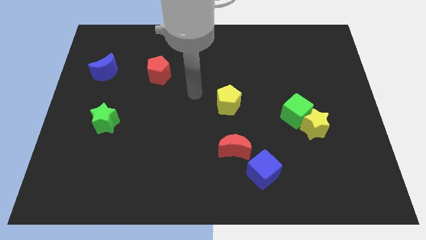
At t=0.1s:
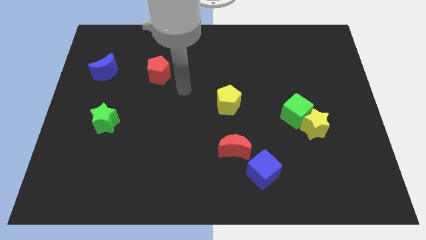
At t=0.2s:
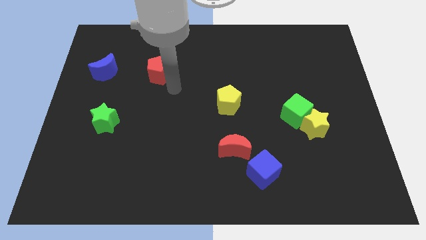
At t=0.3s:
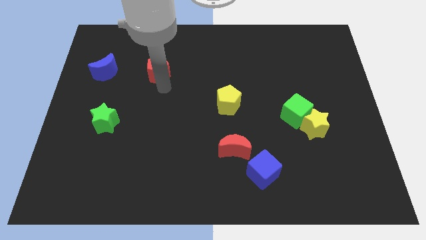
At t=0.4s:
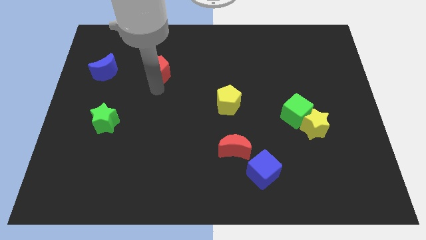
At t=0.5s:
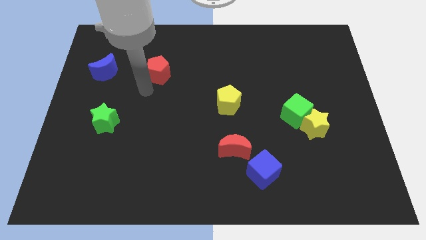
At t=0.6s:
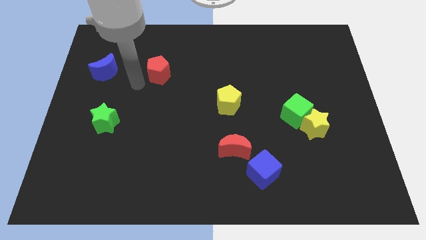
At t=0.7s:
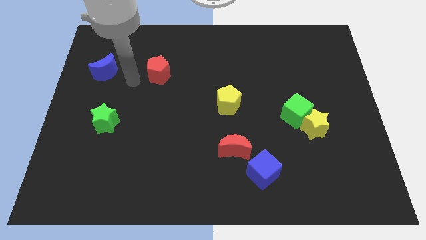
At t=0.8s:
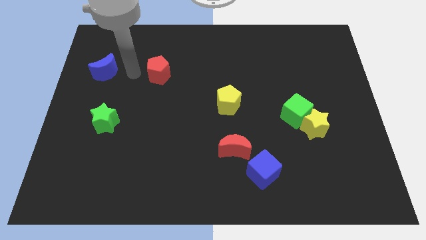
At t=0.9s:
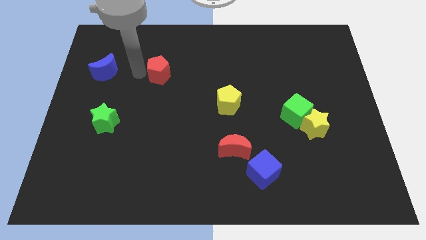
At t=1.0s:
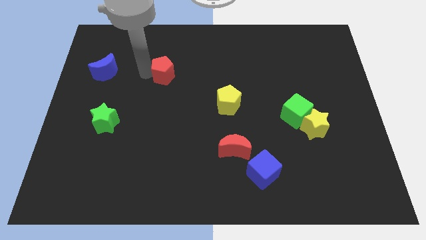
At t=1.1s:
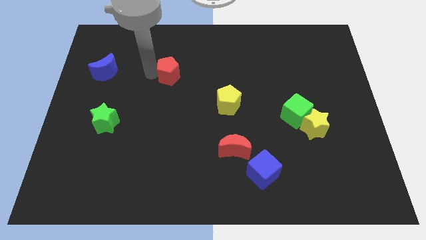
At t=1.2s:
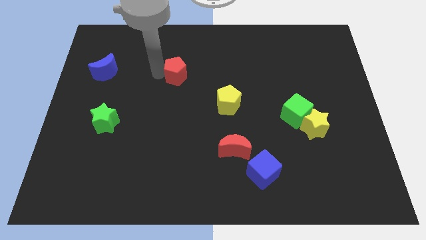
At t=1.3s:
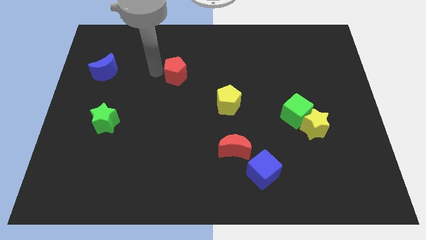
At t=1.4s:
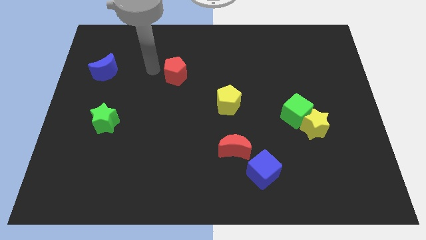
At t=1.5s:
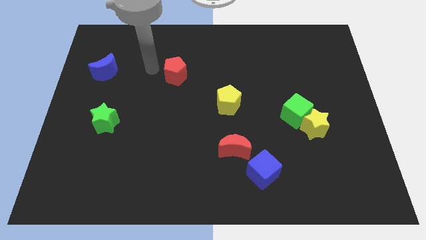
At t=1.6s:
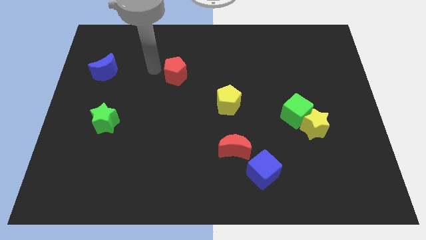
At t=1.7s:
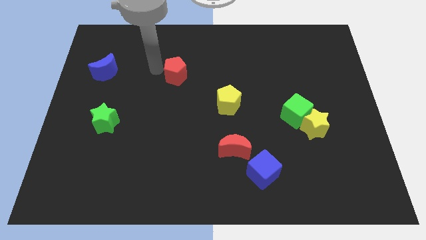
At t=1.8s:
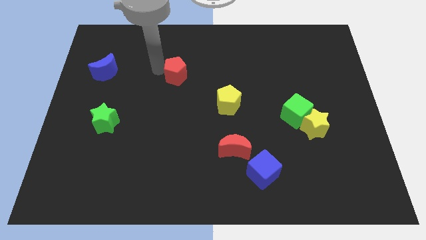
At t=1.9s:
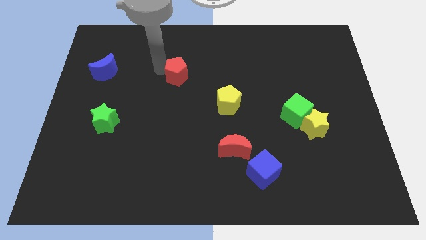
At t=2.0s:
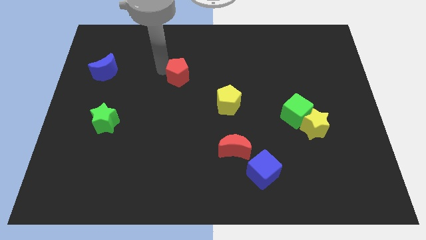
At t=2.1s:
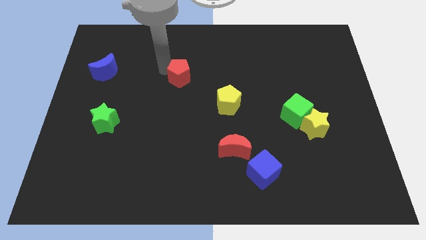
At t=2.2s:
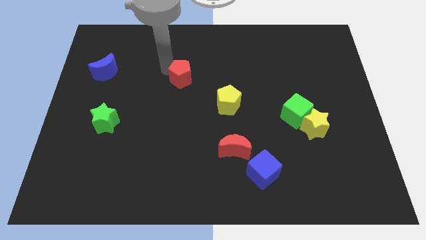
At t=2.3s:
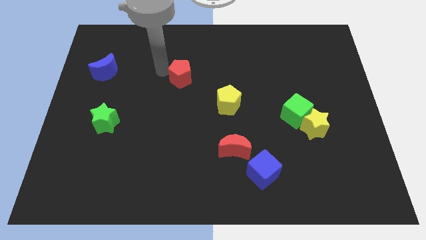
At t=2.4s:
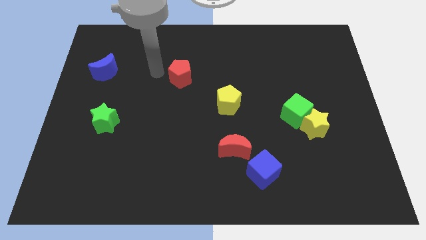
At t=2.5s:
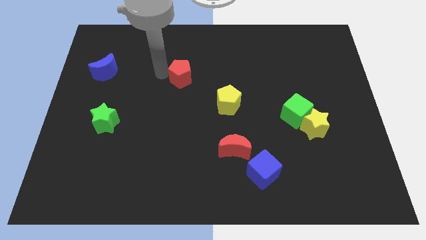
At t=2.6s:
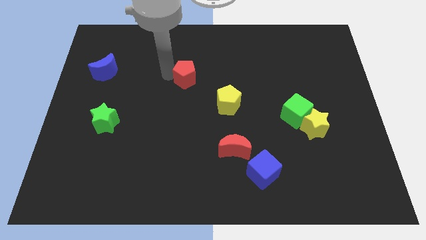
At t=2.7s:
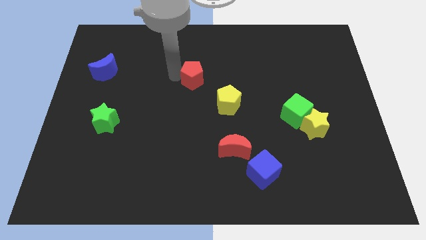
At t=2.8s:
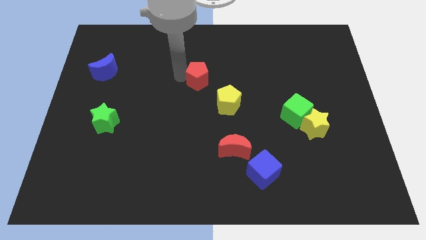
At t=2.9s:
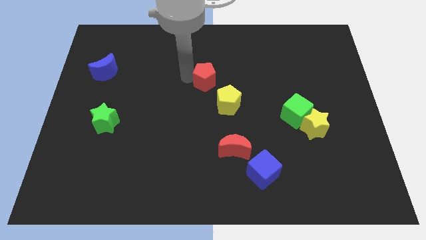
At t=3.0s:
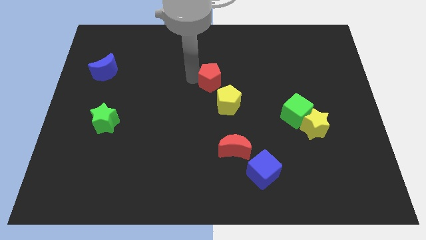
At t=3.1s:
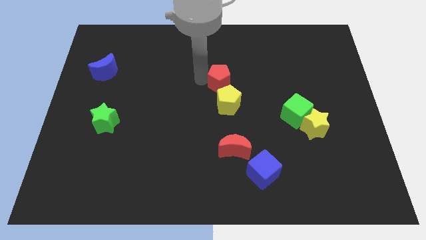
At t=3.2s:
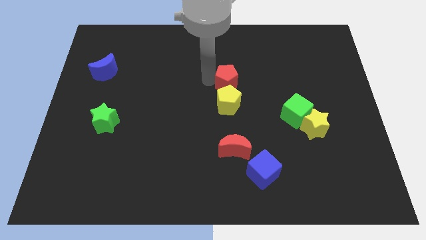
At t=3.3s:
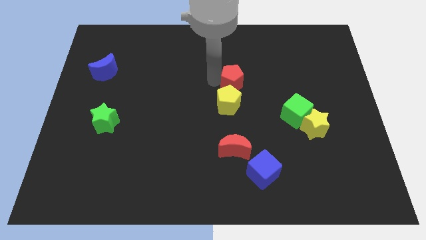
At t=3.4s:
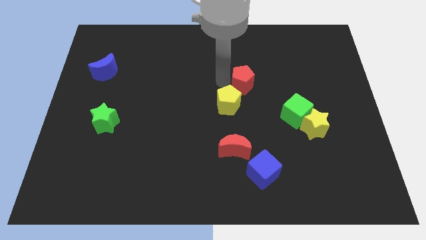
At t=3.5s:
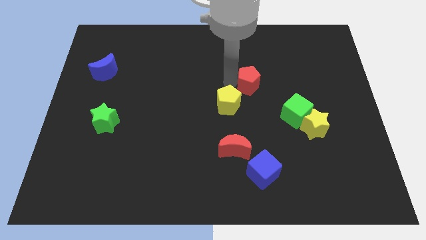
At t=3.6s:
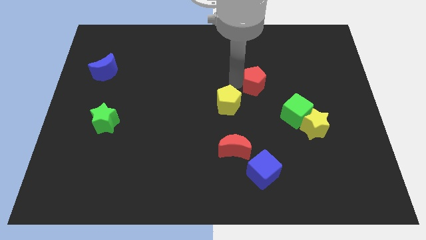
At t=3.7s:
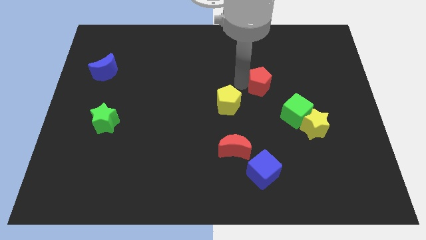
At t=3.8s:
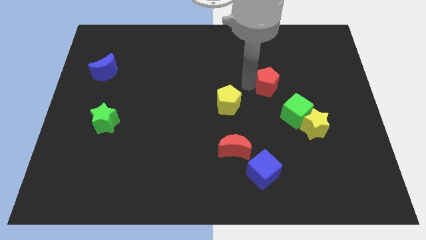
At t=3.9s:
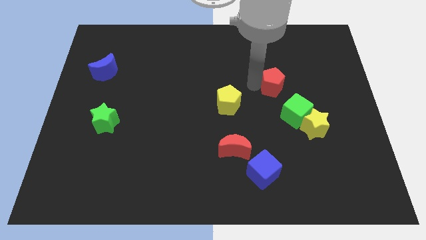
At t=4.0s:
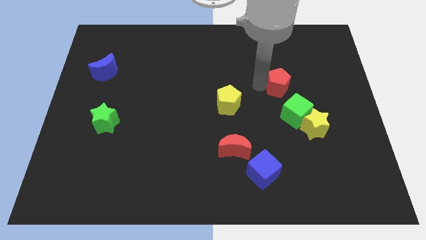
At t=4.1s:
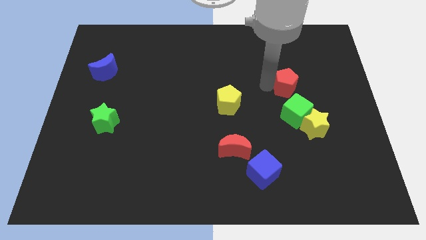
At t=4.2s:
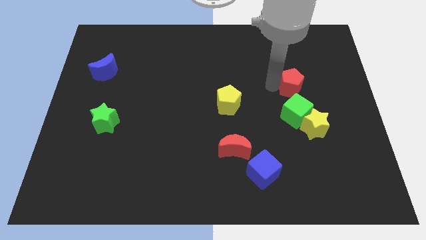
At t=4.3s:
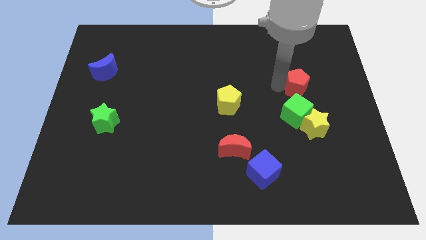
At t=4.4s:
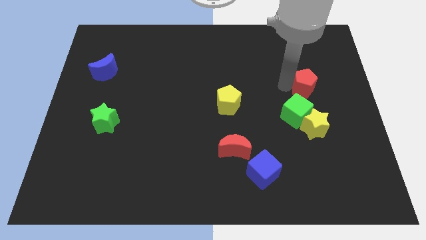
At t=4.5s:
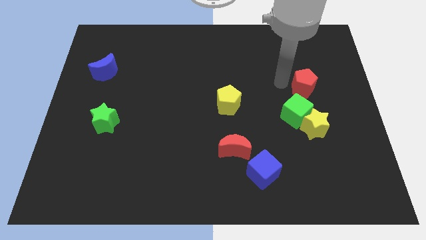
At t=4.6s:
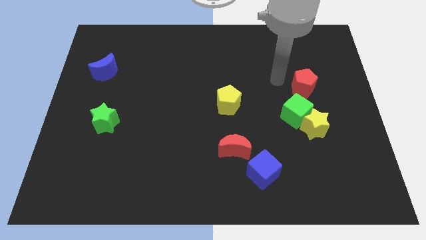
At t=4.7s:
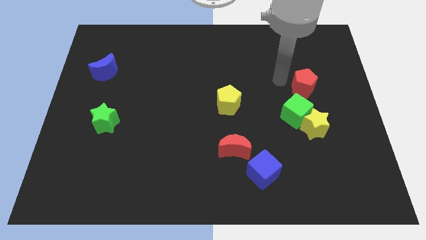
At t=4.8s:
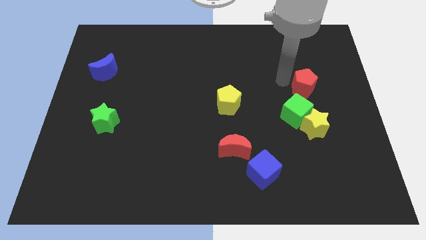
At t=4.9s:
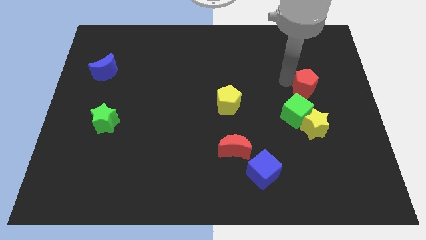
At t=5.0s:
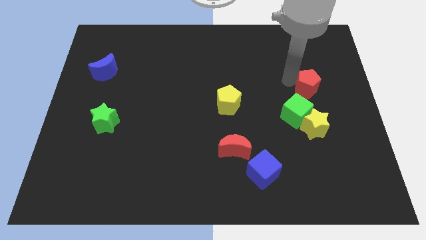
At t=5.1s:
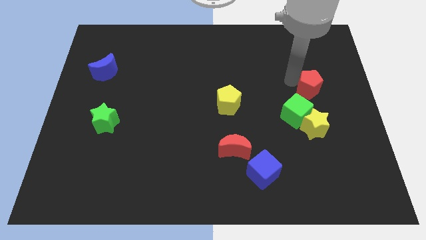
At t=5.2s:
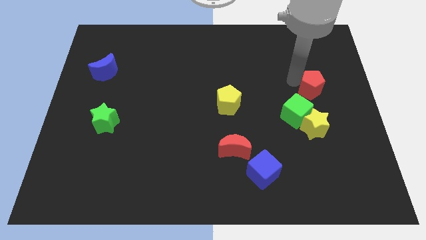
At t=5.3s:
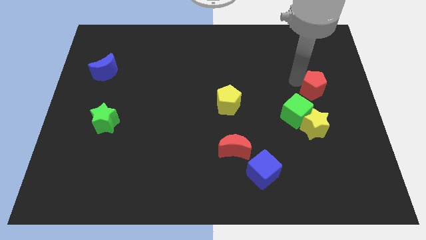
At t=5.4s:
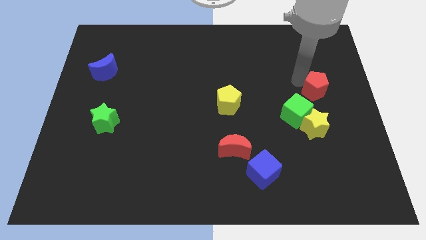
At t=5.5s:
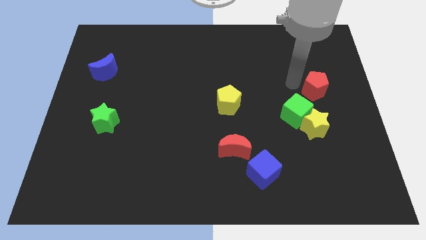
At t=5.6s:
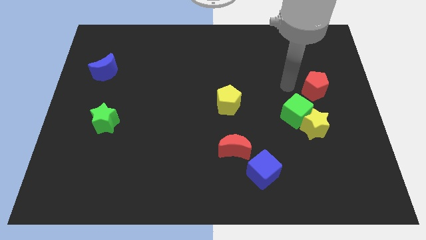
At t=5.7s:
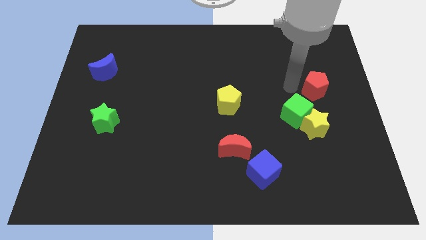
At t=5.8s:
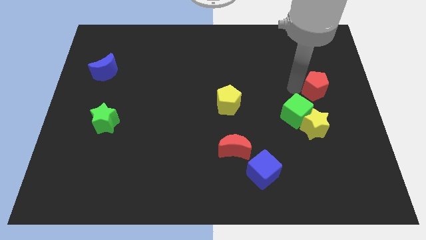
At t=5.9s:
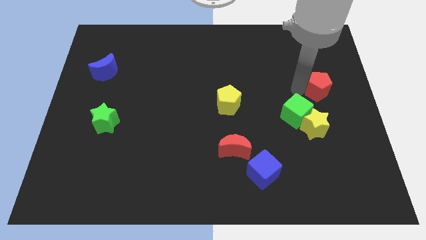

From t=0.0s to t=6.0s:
move the red pentagon to the center right
